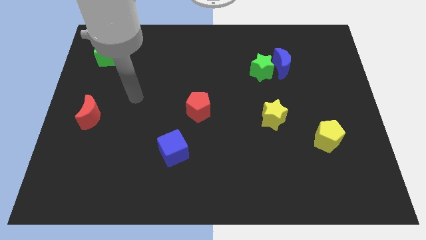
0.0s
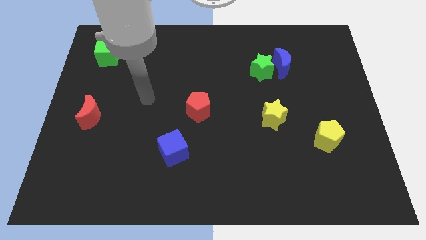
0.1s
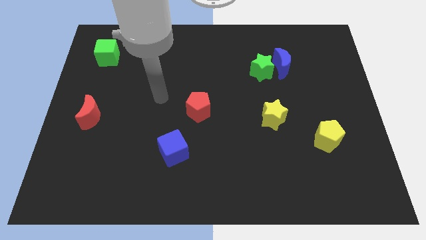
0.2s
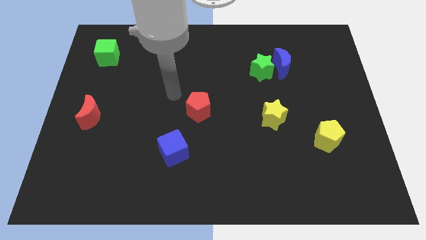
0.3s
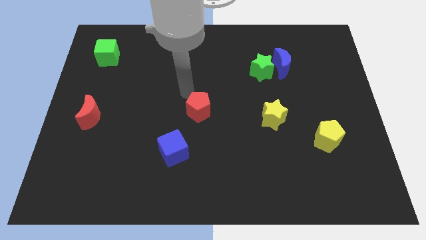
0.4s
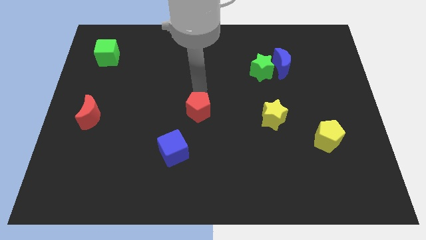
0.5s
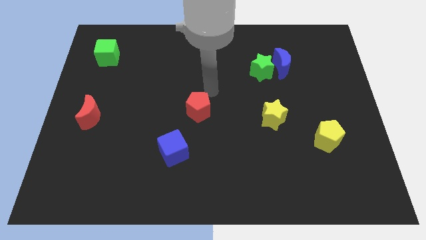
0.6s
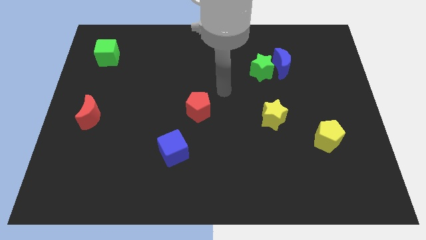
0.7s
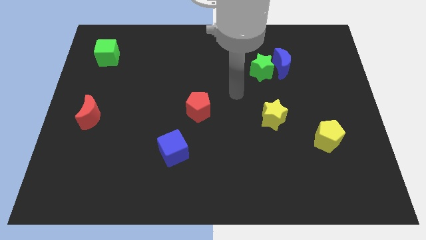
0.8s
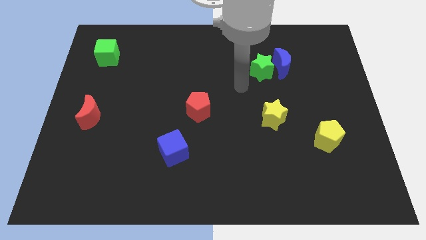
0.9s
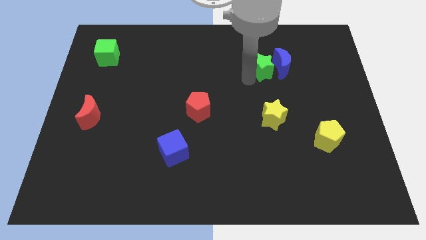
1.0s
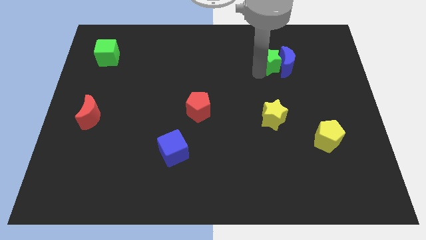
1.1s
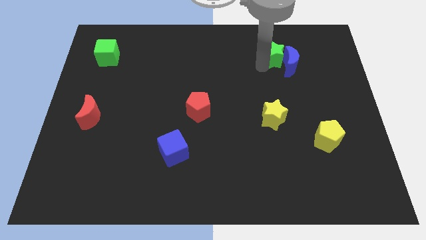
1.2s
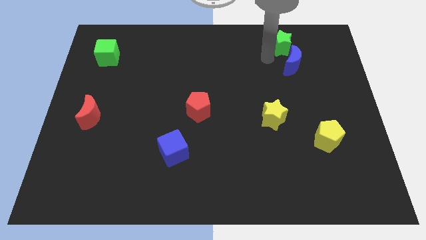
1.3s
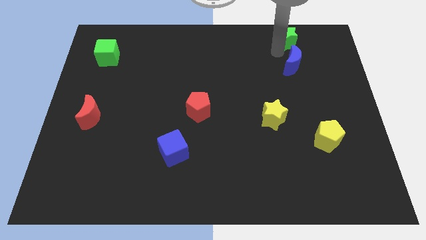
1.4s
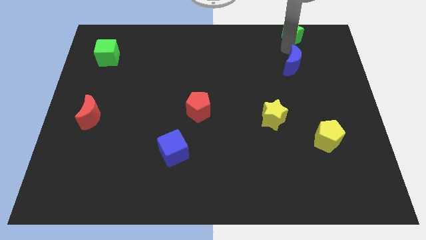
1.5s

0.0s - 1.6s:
pull the blue moon apart from the green star

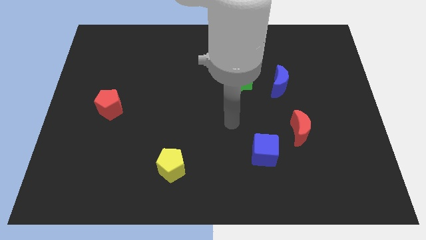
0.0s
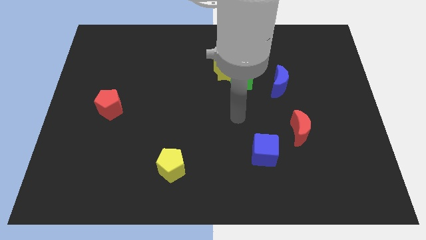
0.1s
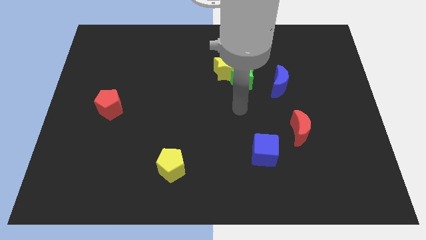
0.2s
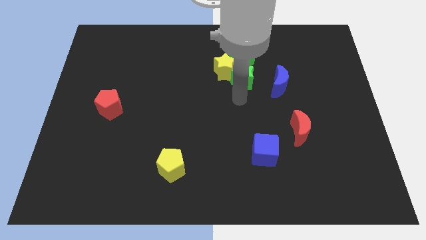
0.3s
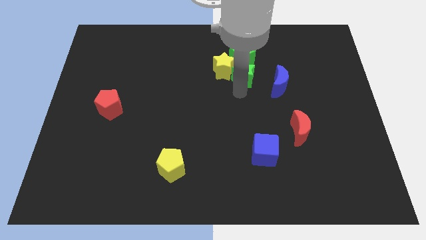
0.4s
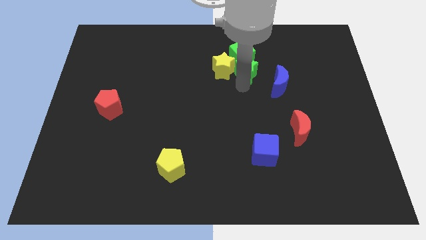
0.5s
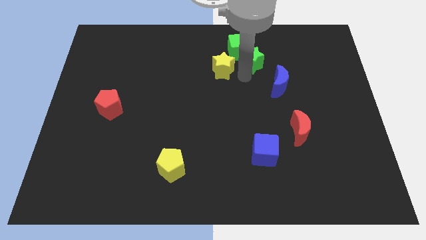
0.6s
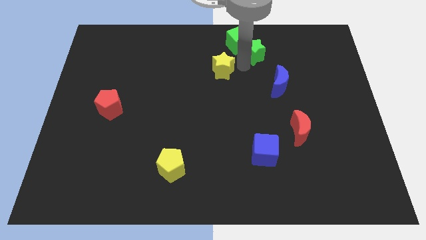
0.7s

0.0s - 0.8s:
separate the yellow star from the green star and green cube

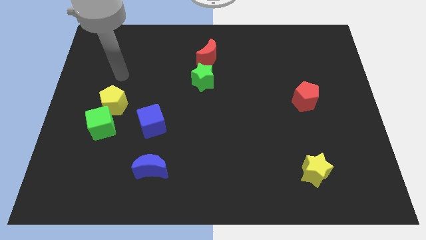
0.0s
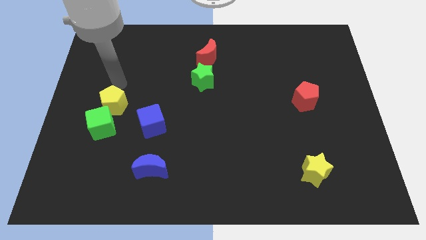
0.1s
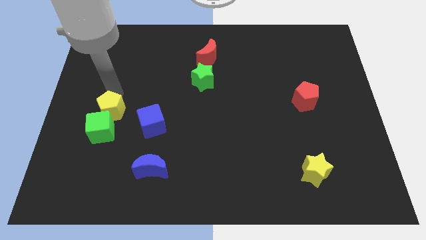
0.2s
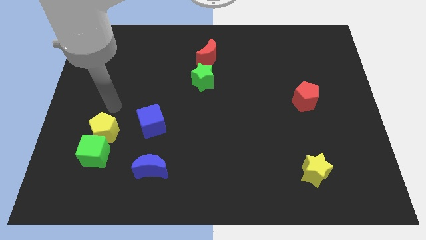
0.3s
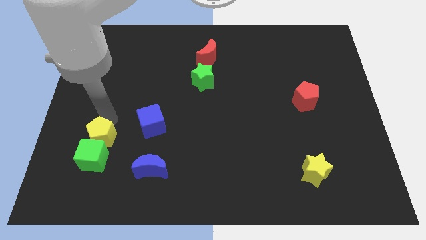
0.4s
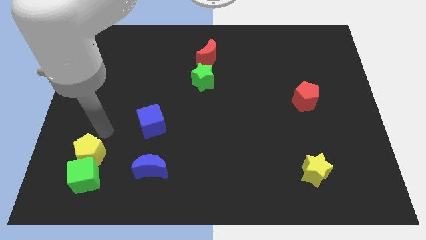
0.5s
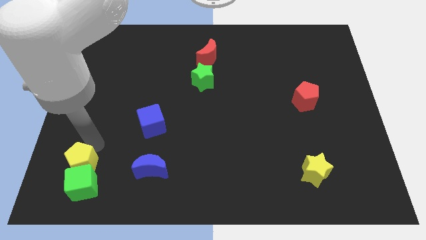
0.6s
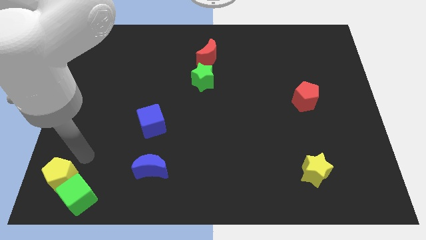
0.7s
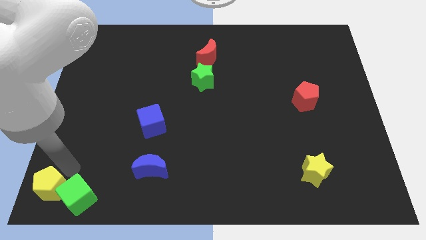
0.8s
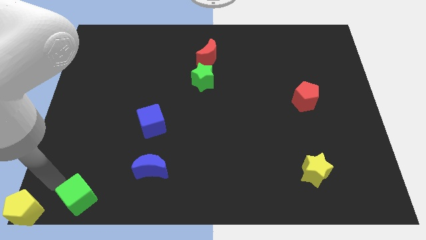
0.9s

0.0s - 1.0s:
separate the green cube from the yellow pentagon

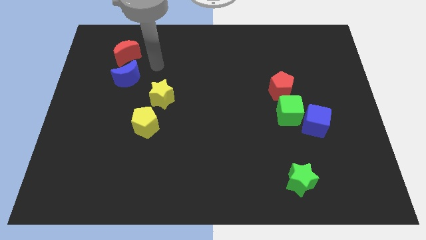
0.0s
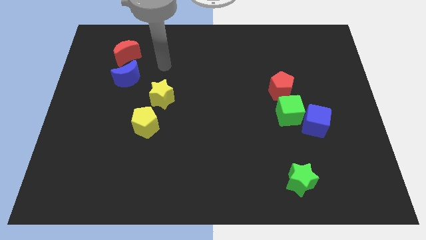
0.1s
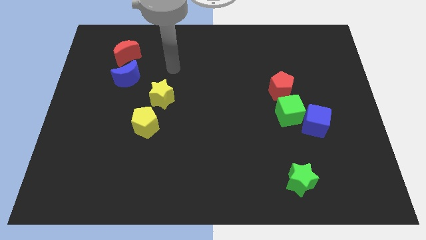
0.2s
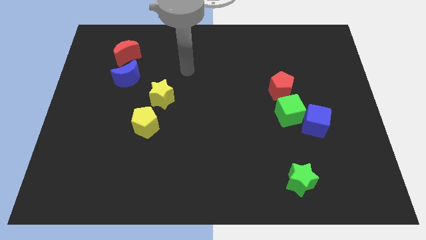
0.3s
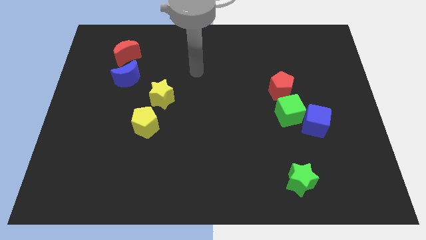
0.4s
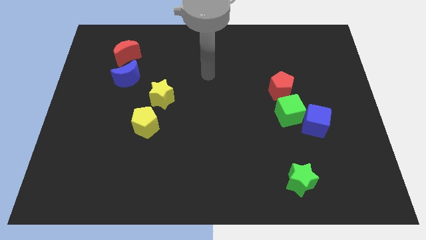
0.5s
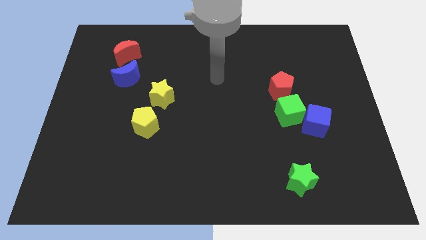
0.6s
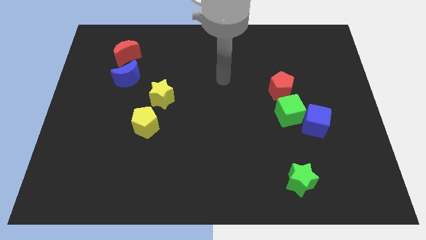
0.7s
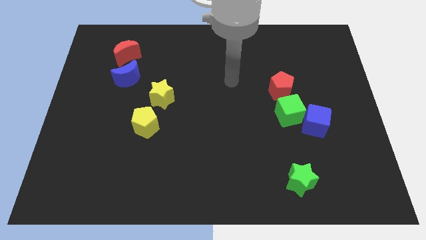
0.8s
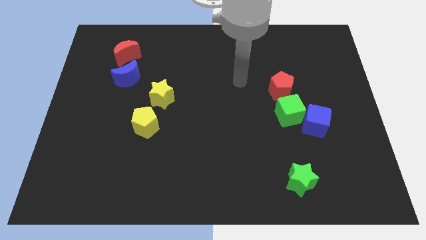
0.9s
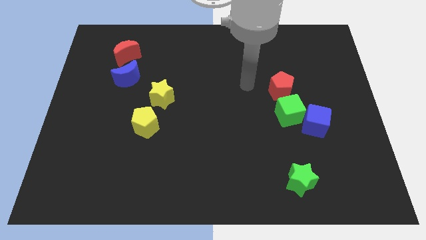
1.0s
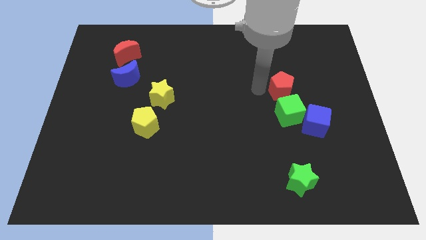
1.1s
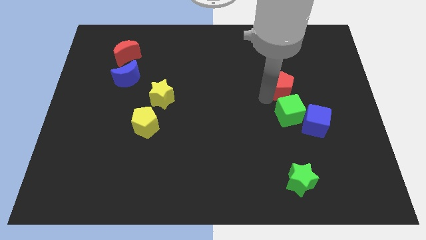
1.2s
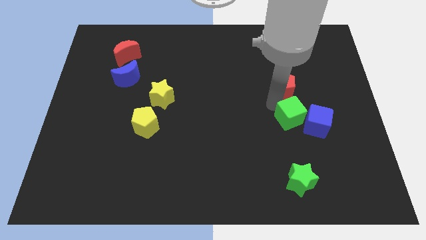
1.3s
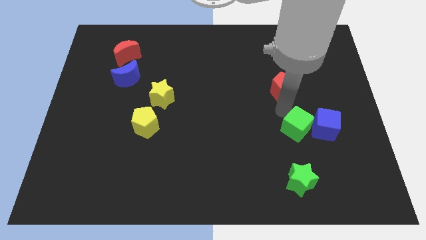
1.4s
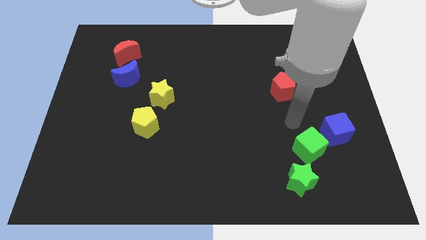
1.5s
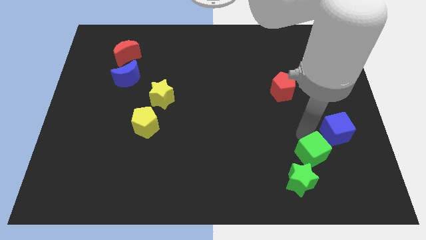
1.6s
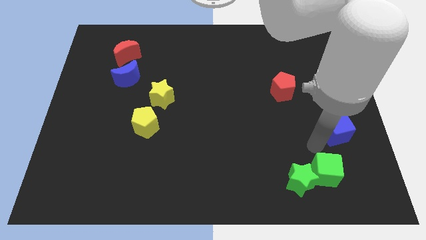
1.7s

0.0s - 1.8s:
separate the blue cube from the green cube

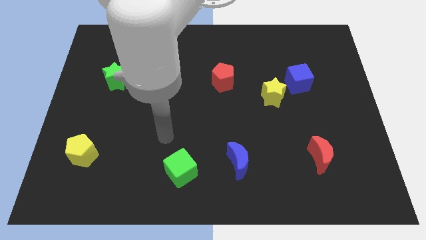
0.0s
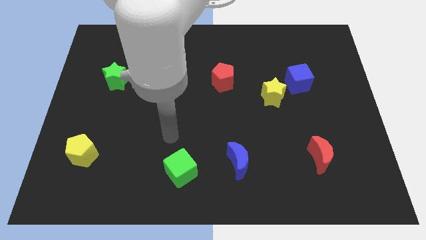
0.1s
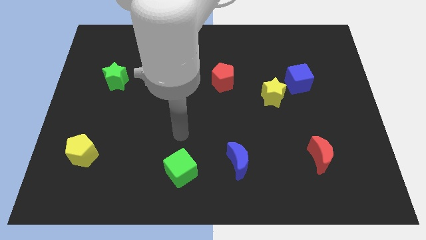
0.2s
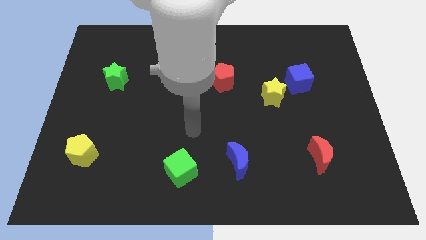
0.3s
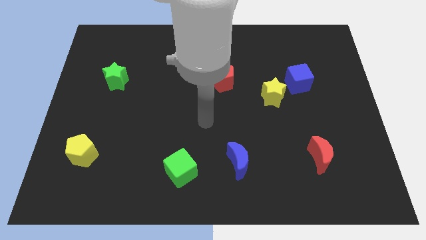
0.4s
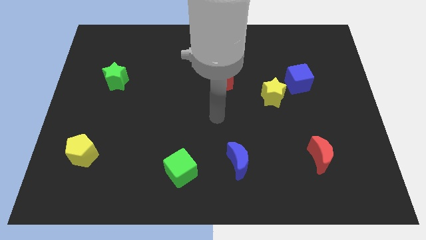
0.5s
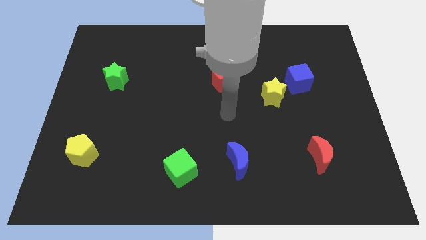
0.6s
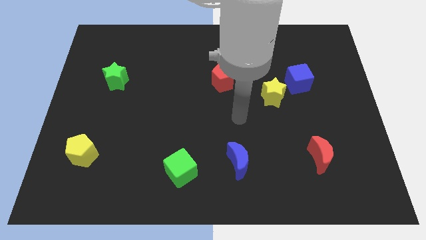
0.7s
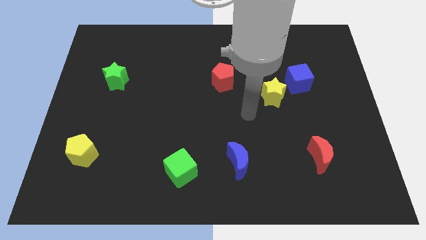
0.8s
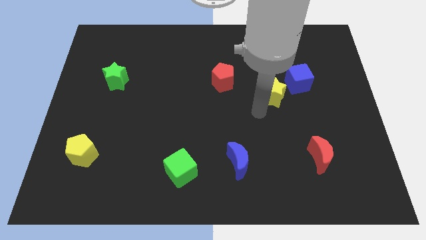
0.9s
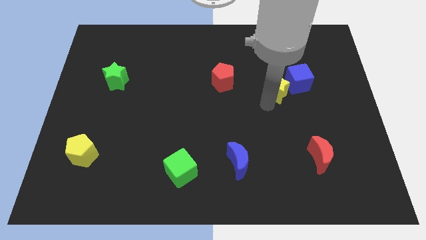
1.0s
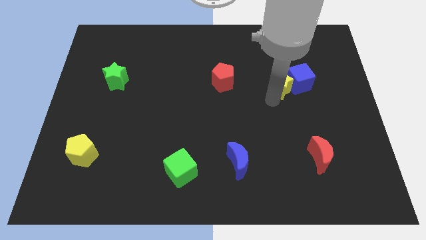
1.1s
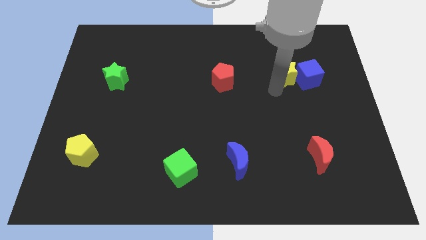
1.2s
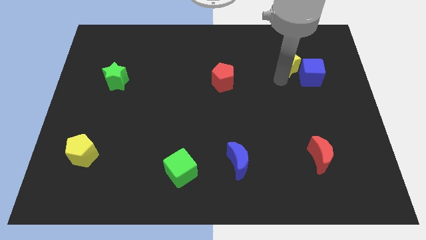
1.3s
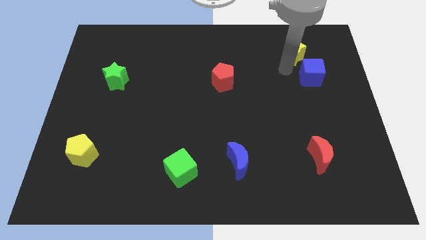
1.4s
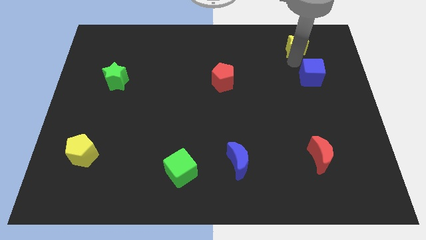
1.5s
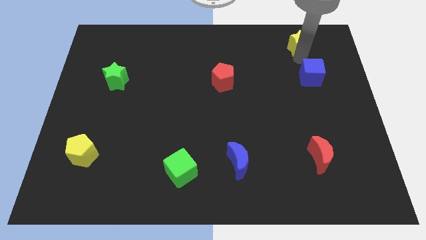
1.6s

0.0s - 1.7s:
pull the blue cube apart from the yellow star

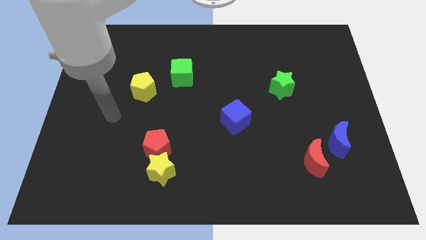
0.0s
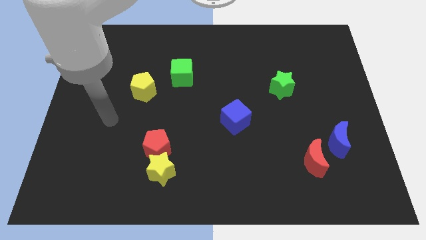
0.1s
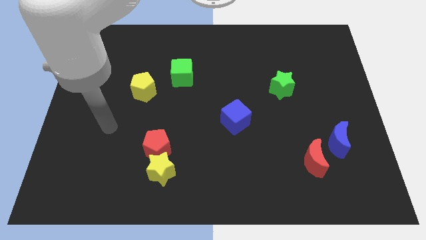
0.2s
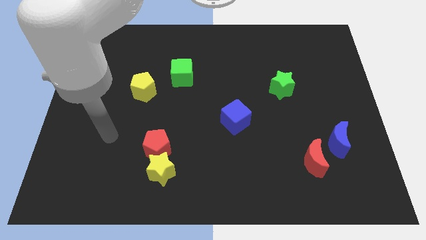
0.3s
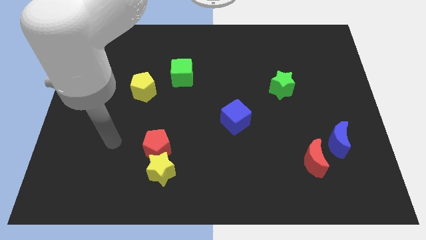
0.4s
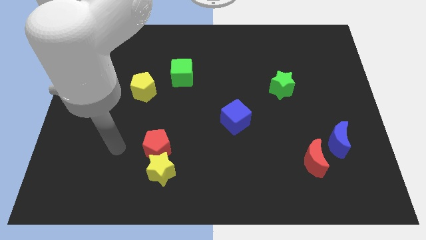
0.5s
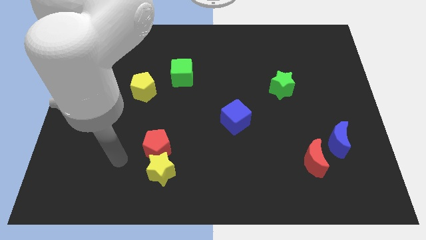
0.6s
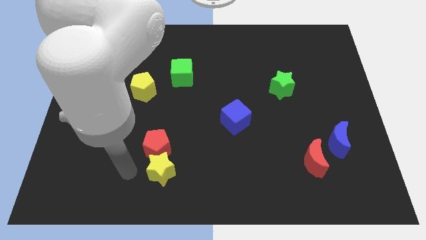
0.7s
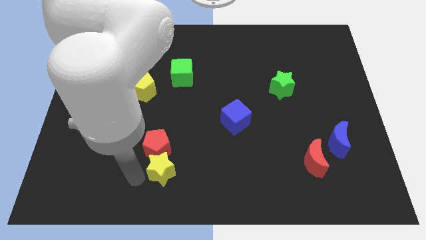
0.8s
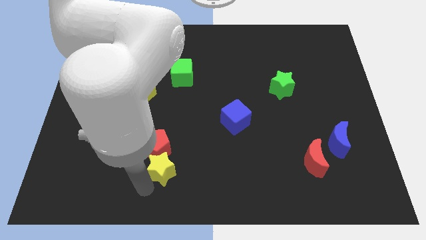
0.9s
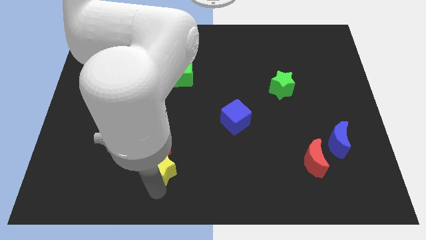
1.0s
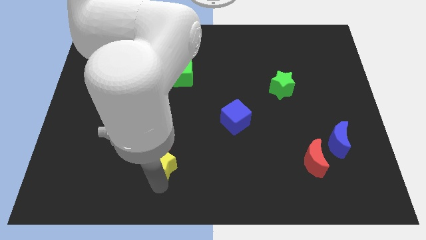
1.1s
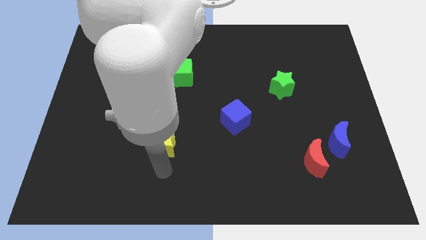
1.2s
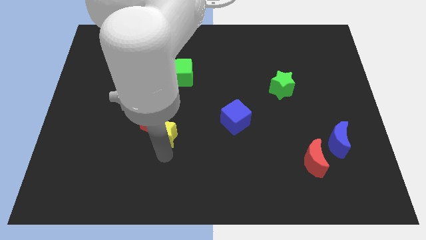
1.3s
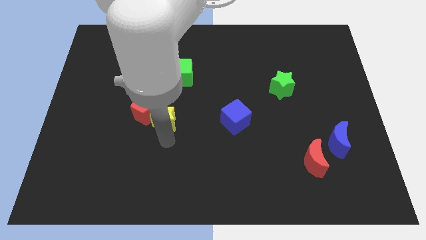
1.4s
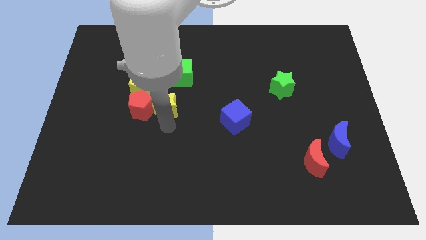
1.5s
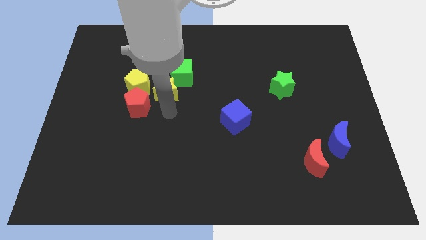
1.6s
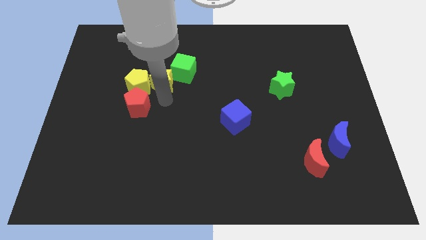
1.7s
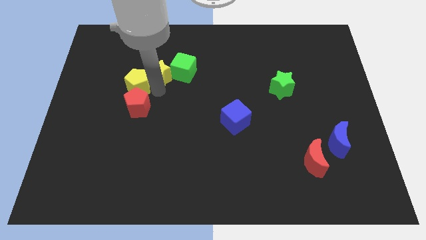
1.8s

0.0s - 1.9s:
separate the red pentagon from the yellow star

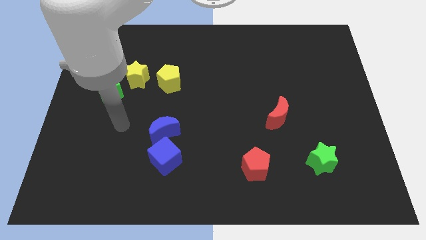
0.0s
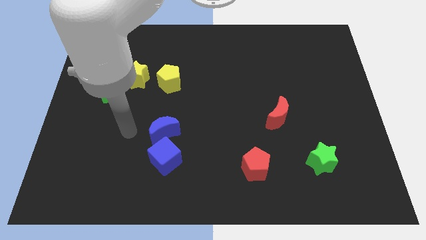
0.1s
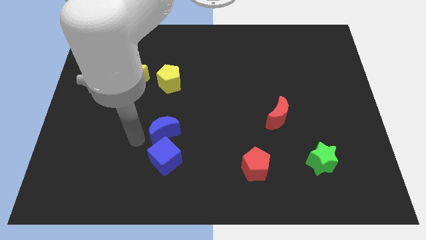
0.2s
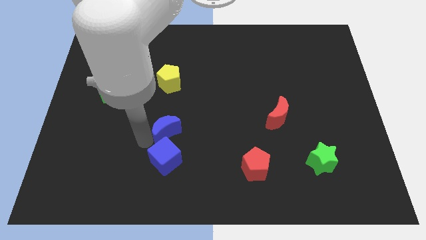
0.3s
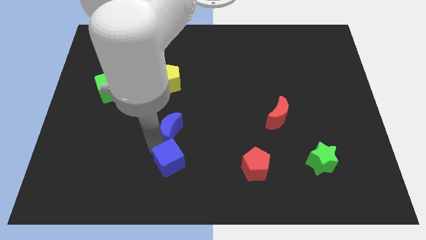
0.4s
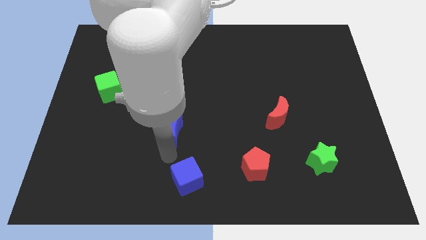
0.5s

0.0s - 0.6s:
move the blue moon away from the blue cube
